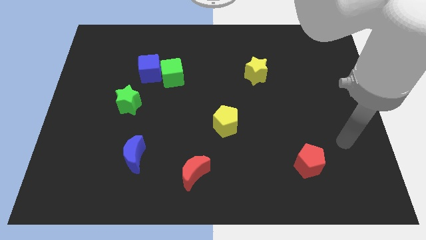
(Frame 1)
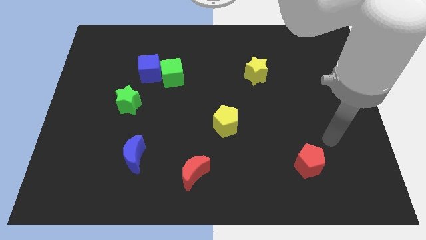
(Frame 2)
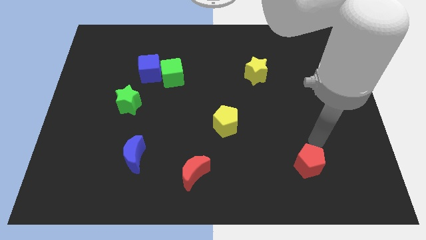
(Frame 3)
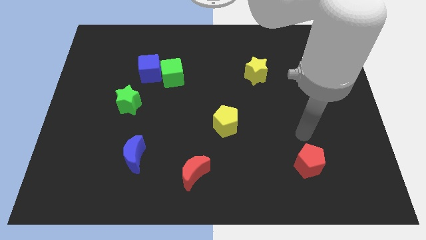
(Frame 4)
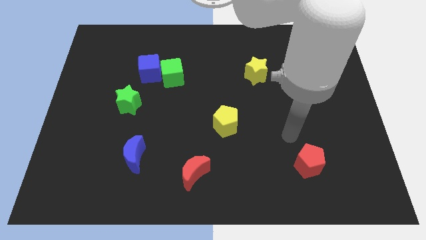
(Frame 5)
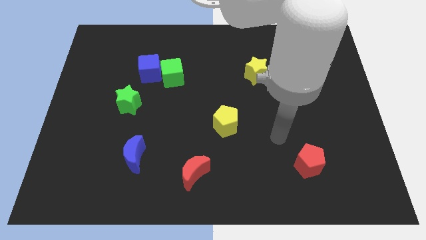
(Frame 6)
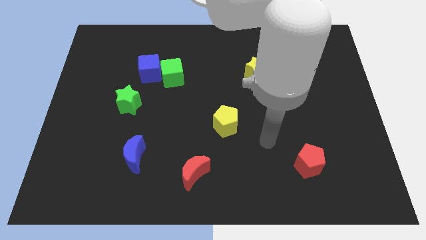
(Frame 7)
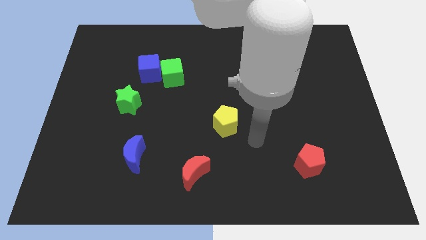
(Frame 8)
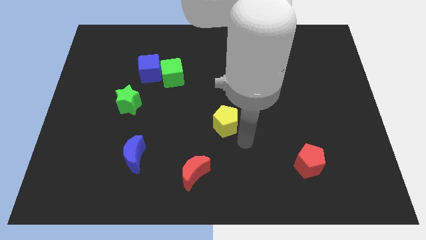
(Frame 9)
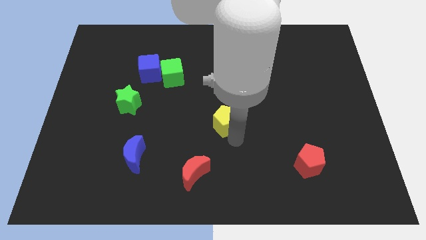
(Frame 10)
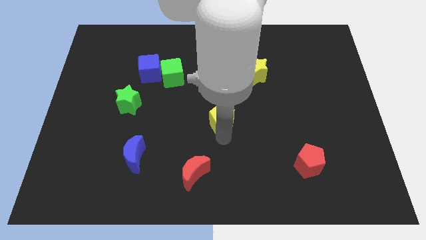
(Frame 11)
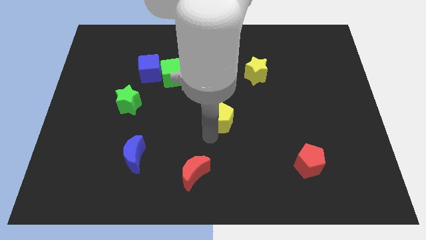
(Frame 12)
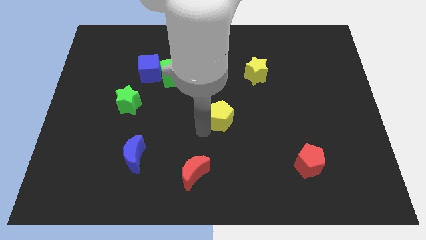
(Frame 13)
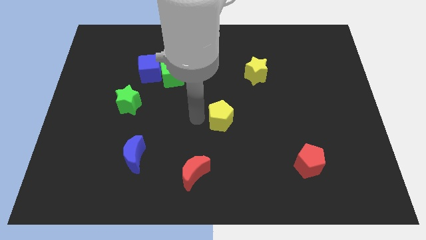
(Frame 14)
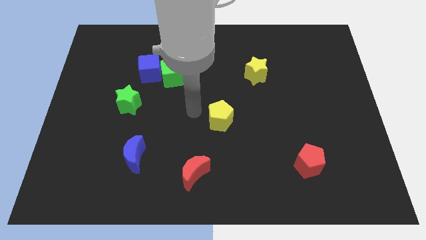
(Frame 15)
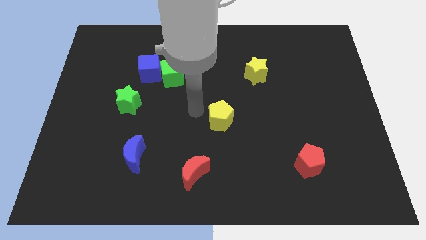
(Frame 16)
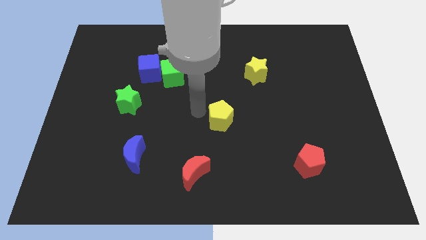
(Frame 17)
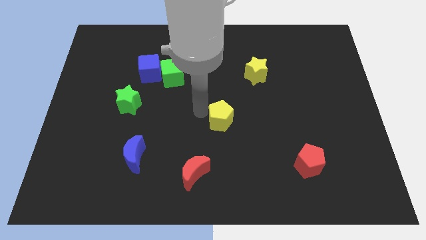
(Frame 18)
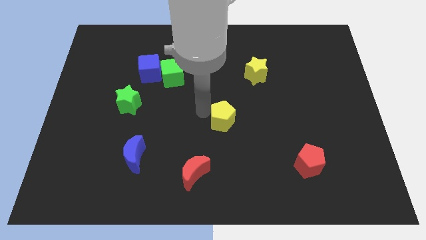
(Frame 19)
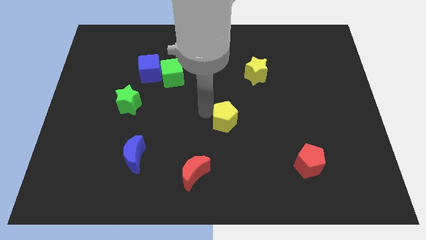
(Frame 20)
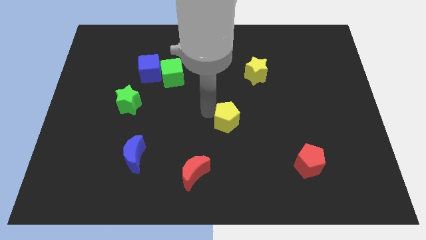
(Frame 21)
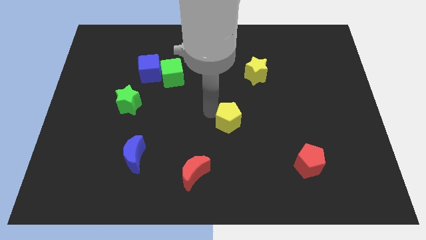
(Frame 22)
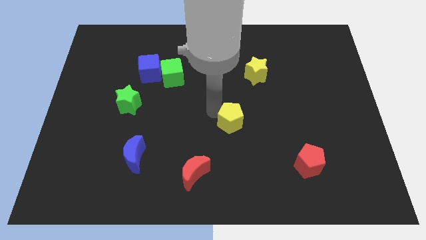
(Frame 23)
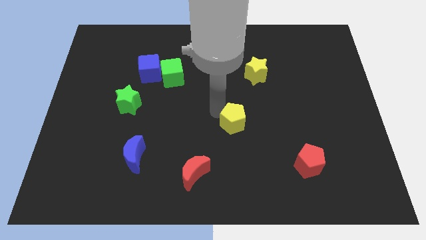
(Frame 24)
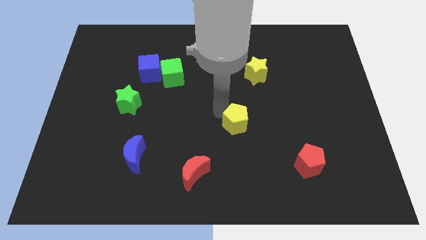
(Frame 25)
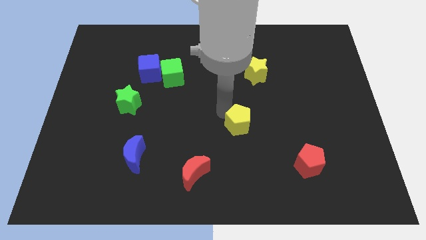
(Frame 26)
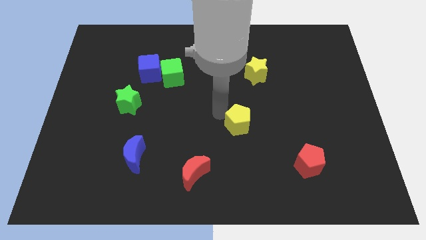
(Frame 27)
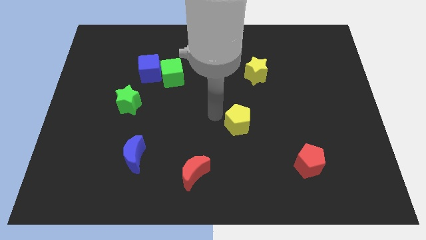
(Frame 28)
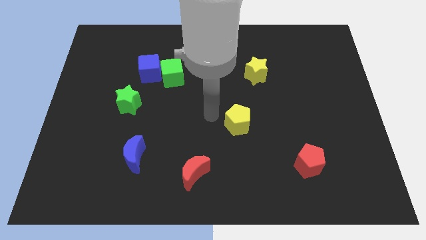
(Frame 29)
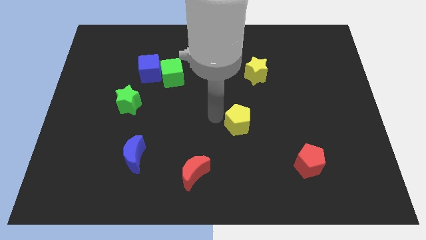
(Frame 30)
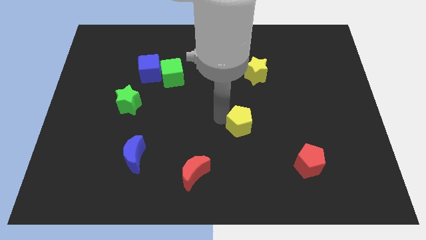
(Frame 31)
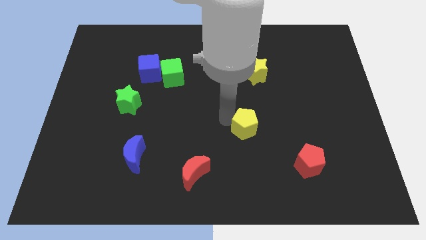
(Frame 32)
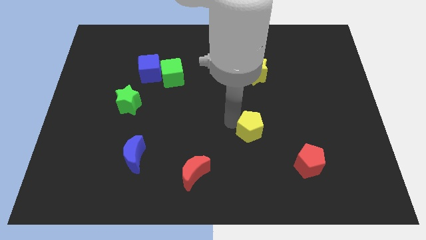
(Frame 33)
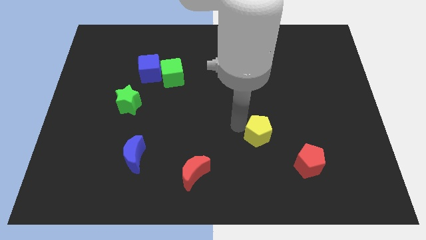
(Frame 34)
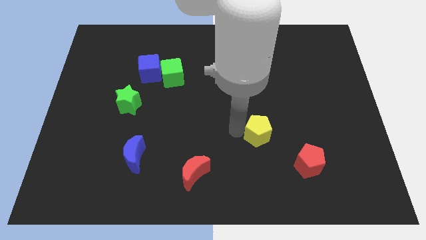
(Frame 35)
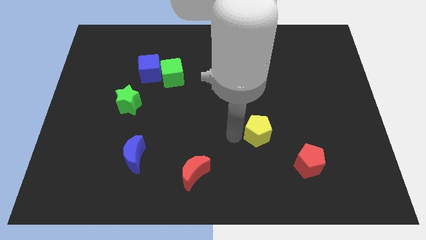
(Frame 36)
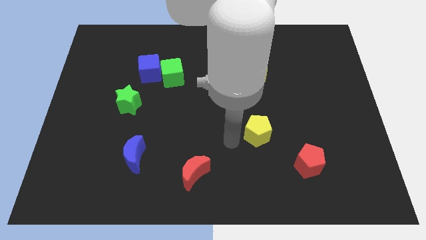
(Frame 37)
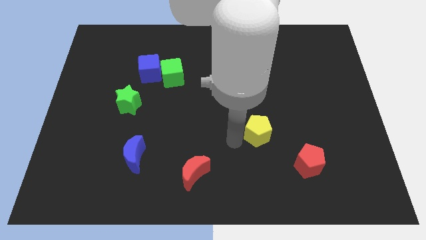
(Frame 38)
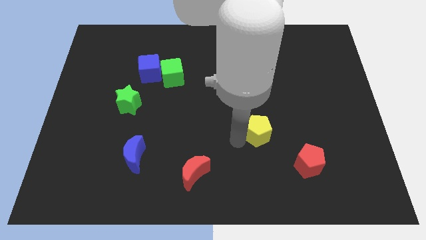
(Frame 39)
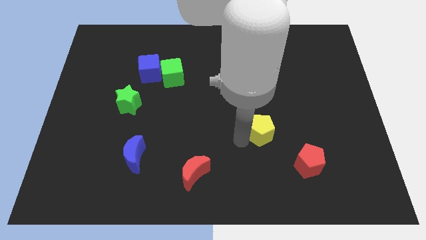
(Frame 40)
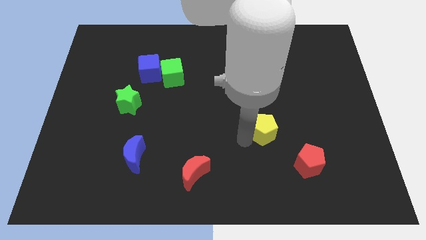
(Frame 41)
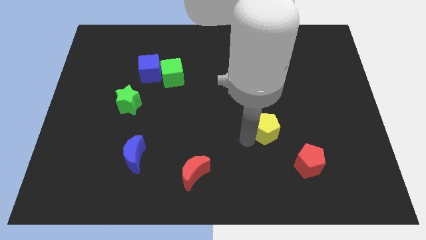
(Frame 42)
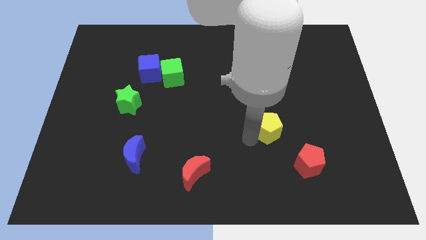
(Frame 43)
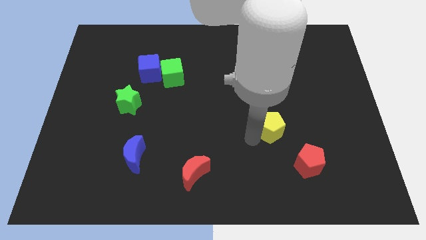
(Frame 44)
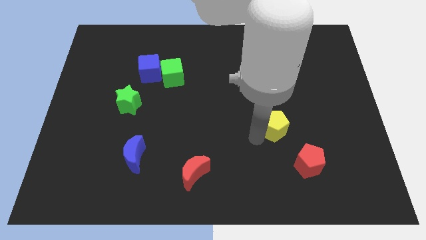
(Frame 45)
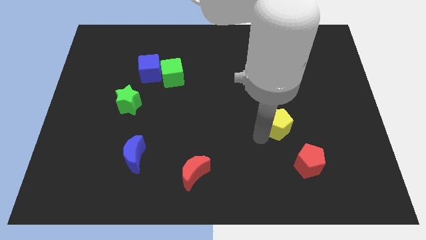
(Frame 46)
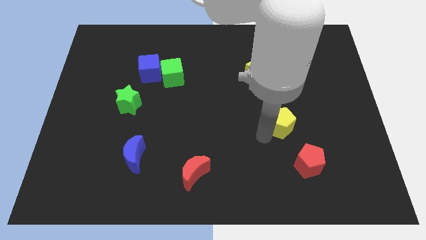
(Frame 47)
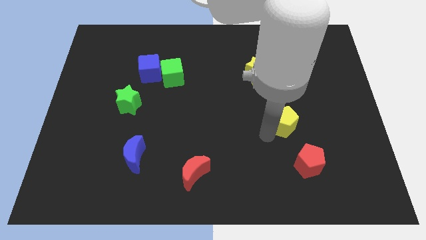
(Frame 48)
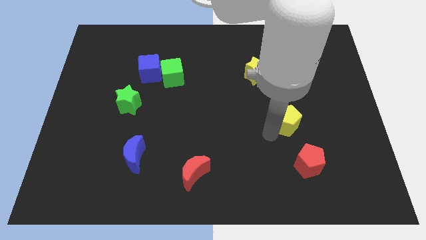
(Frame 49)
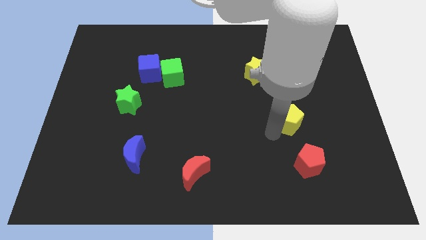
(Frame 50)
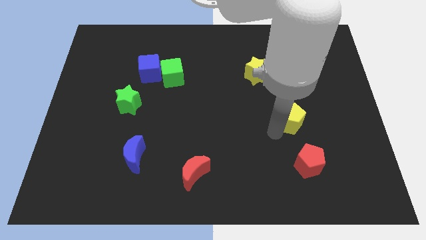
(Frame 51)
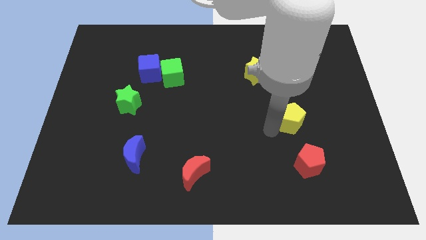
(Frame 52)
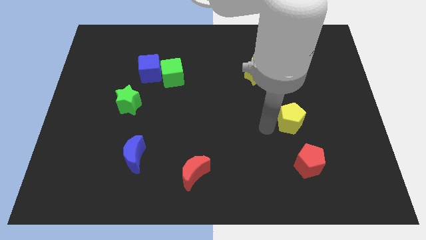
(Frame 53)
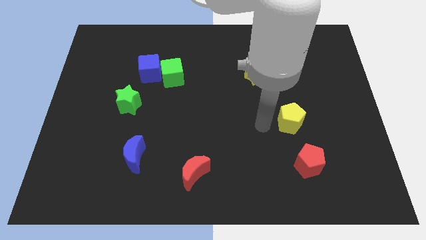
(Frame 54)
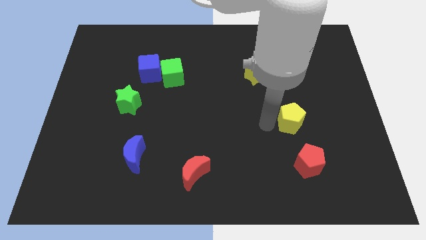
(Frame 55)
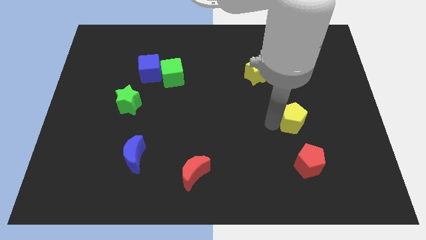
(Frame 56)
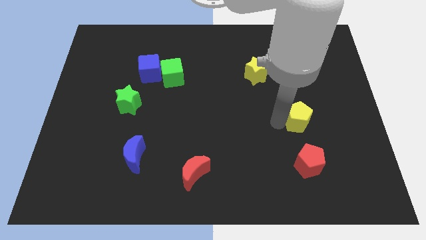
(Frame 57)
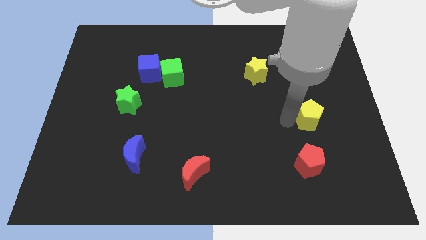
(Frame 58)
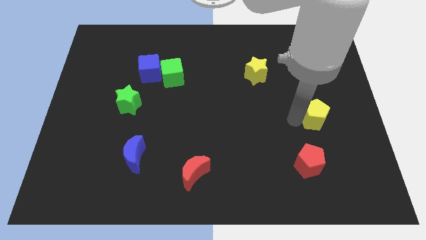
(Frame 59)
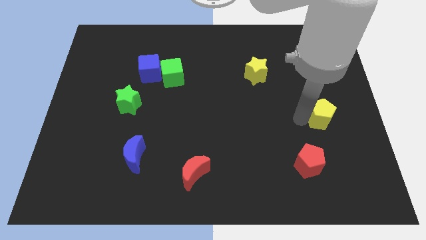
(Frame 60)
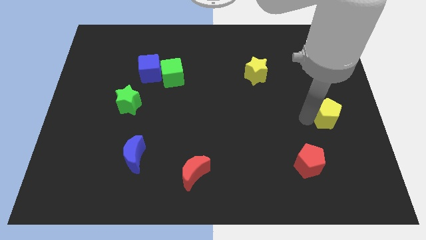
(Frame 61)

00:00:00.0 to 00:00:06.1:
slide the yellow pentagon to the right side of the board

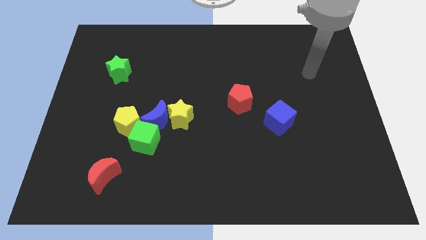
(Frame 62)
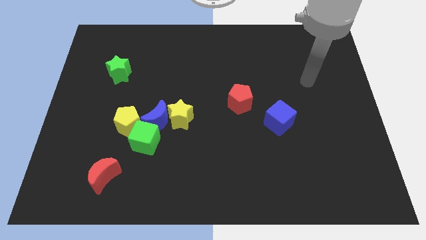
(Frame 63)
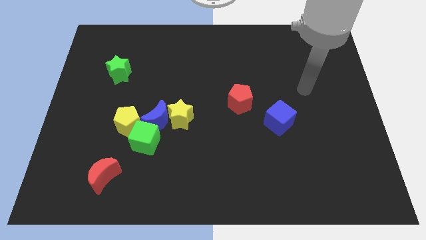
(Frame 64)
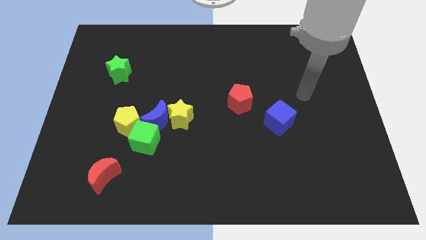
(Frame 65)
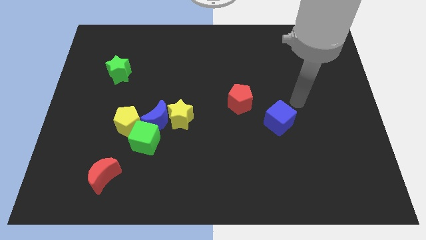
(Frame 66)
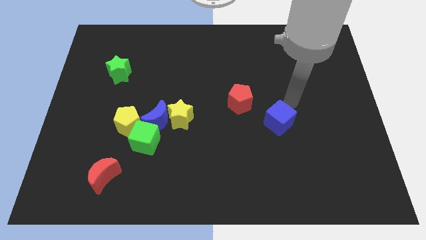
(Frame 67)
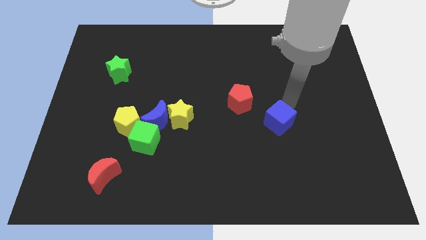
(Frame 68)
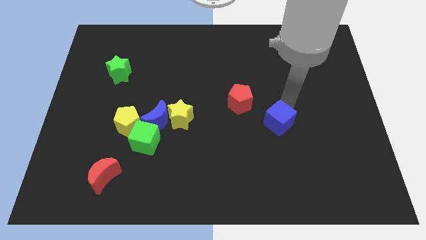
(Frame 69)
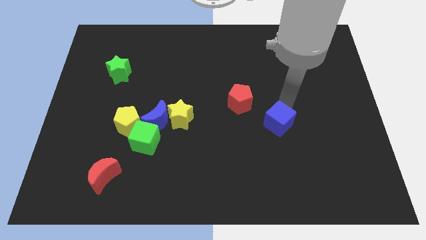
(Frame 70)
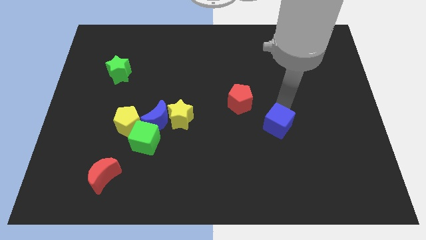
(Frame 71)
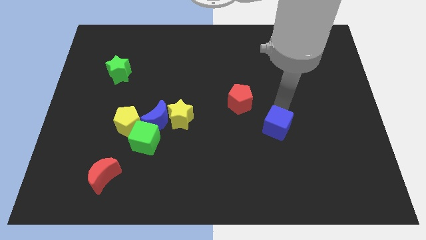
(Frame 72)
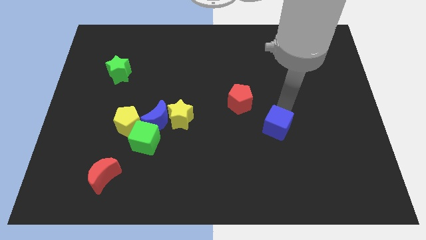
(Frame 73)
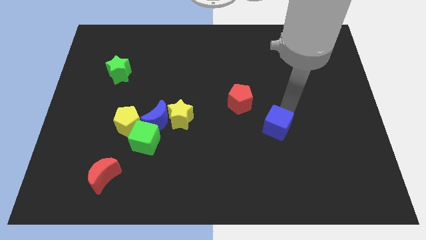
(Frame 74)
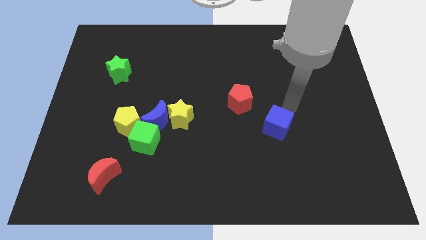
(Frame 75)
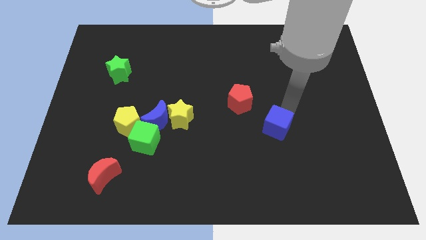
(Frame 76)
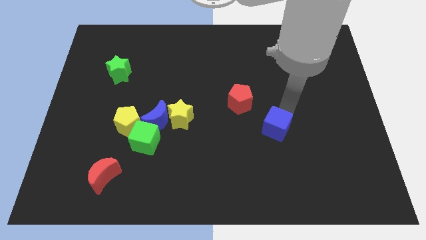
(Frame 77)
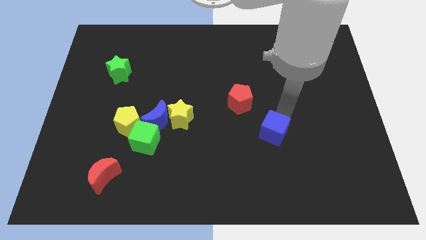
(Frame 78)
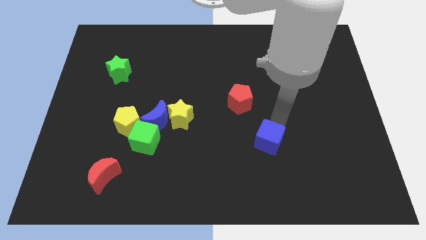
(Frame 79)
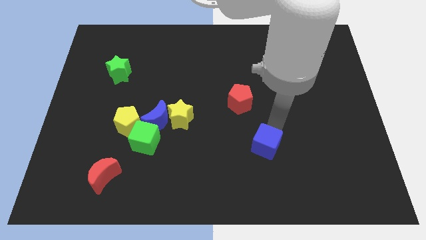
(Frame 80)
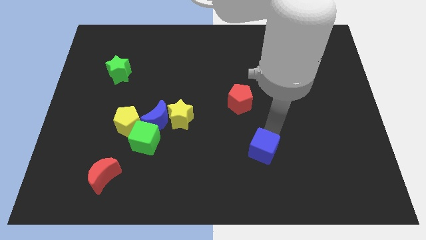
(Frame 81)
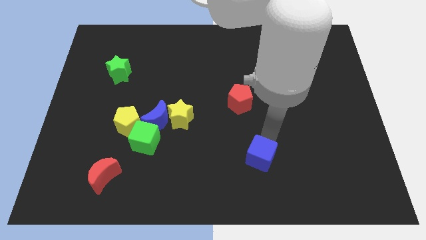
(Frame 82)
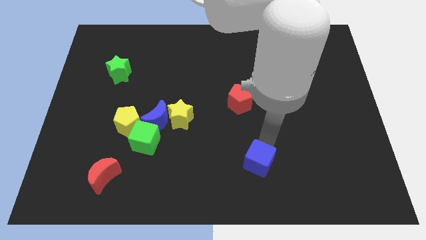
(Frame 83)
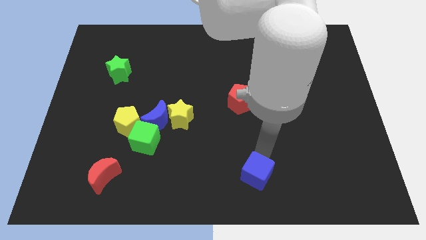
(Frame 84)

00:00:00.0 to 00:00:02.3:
move the blue cube to the bottom side
